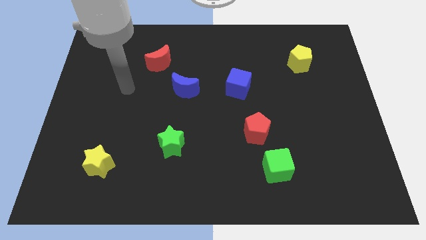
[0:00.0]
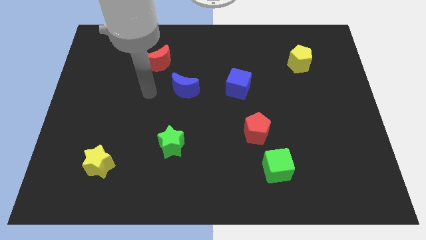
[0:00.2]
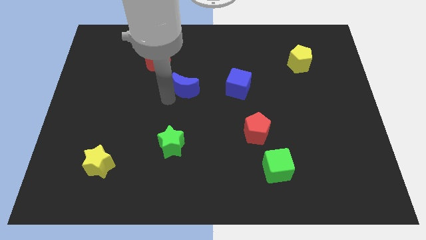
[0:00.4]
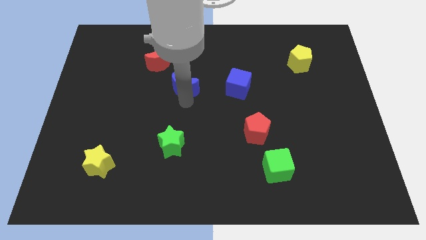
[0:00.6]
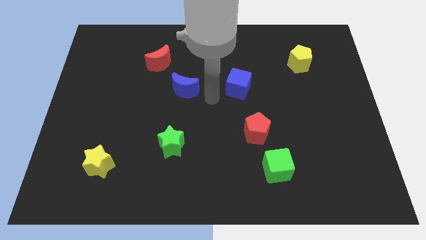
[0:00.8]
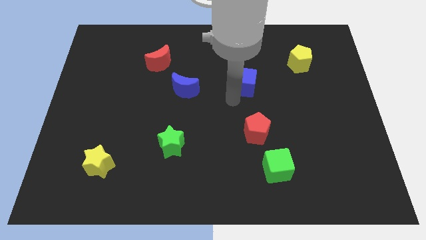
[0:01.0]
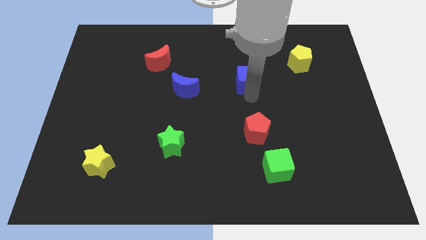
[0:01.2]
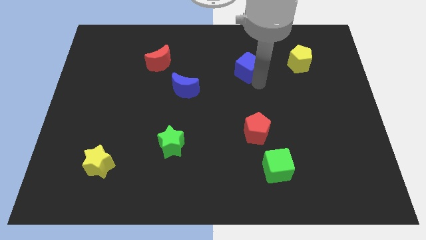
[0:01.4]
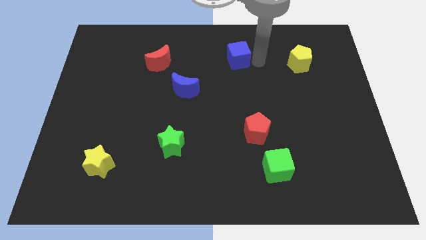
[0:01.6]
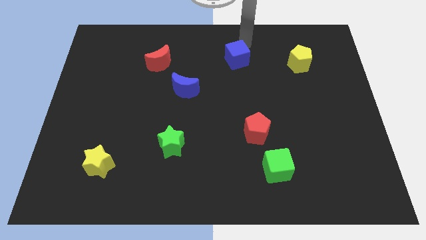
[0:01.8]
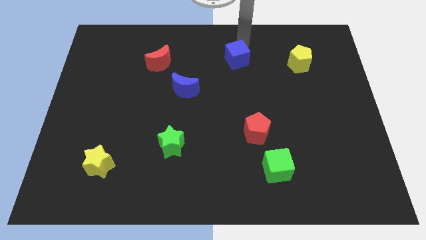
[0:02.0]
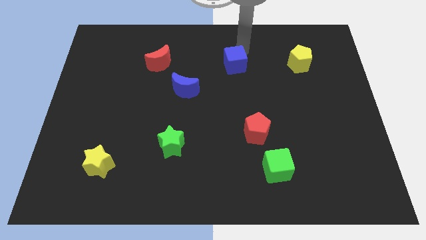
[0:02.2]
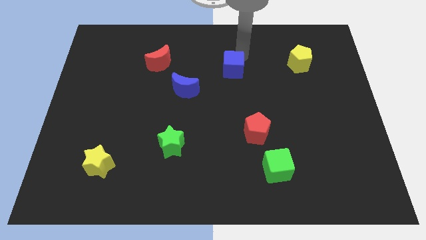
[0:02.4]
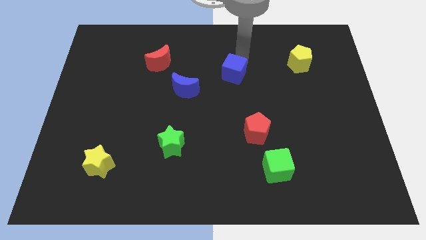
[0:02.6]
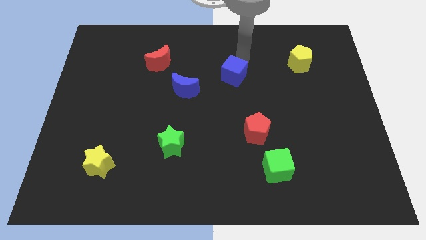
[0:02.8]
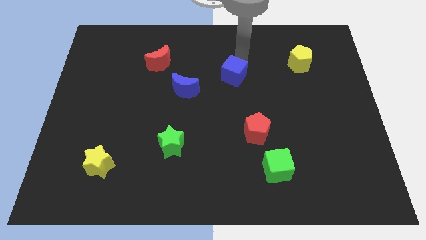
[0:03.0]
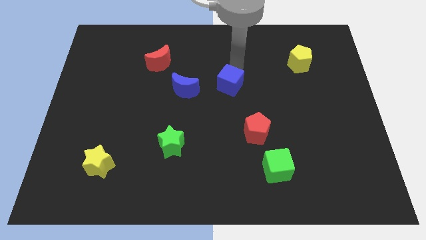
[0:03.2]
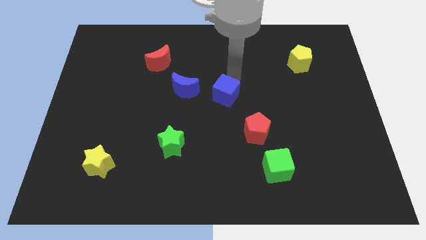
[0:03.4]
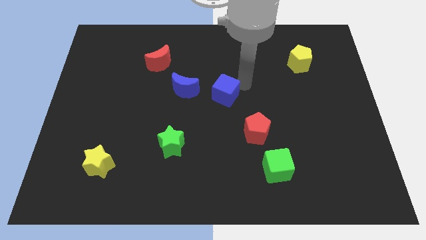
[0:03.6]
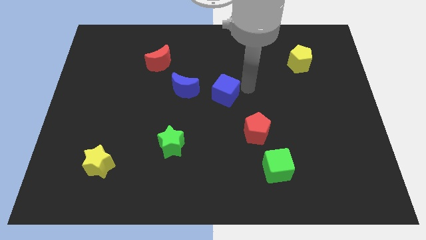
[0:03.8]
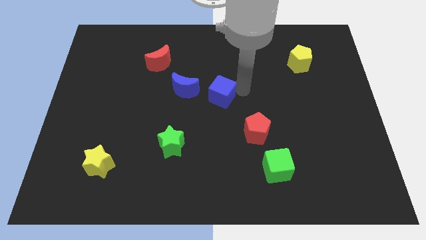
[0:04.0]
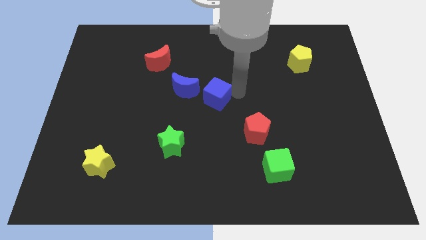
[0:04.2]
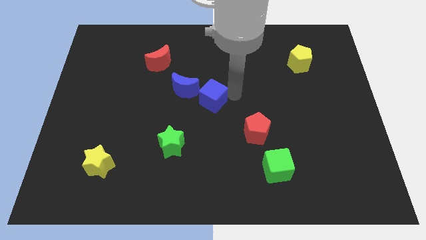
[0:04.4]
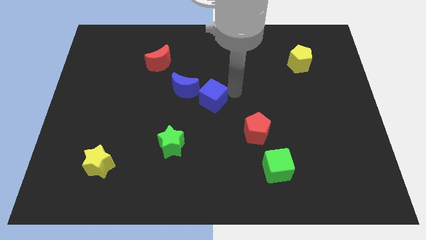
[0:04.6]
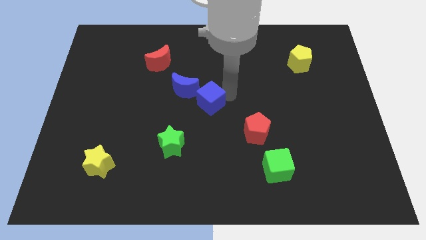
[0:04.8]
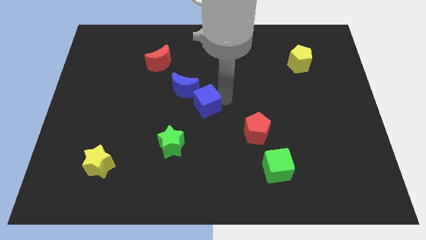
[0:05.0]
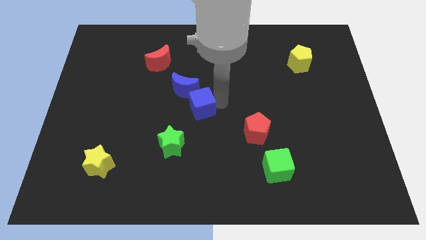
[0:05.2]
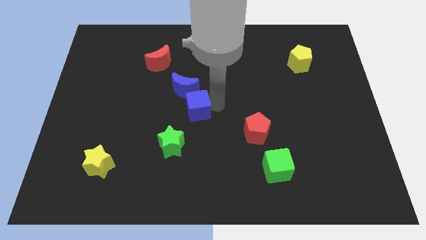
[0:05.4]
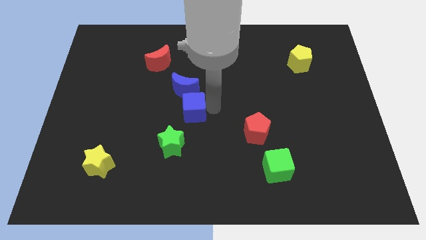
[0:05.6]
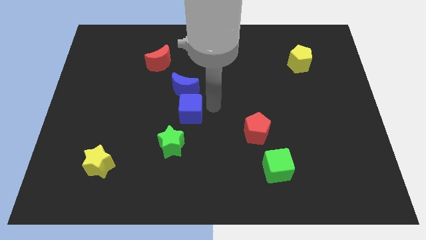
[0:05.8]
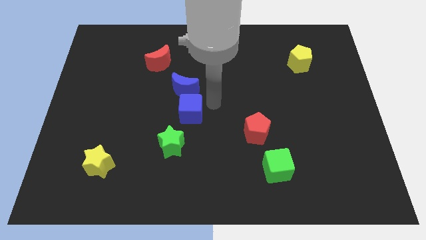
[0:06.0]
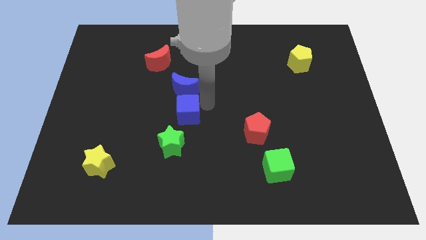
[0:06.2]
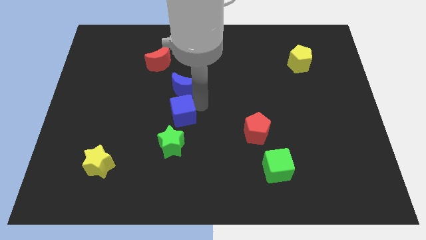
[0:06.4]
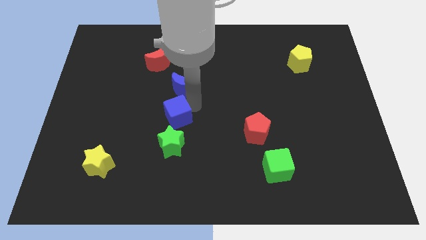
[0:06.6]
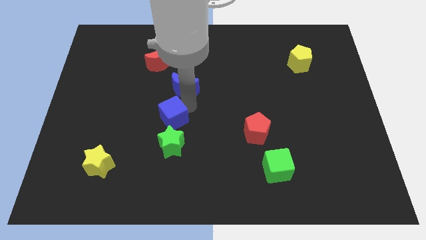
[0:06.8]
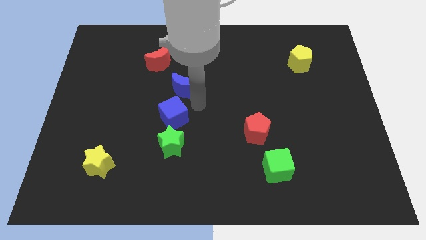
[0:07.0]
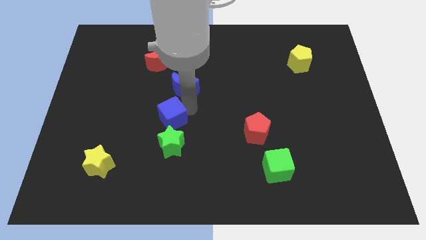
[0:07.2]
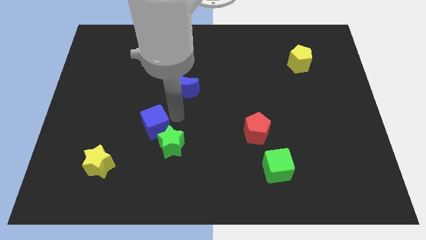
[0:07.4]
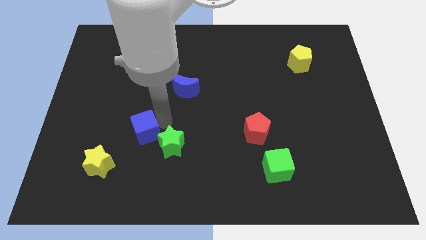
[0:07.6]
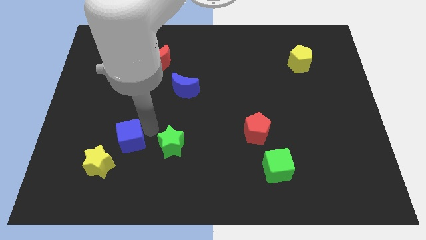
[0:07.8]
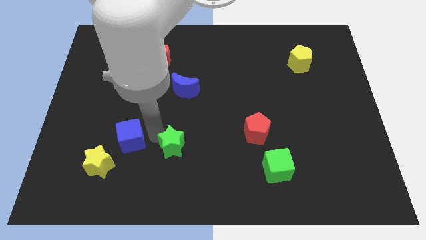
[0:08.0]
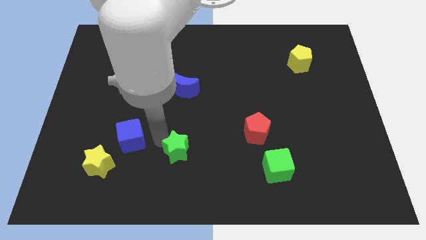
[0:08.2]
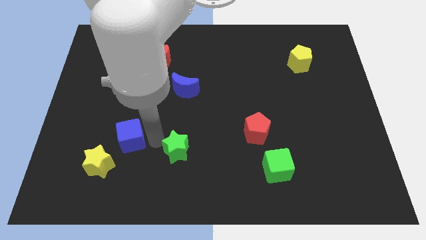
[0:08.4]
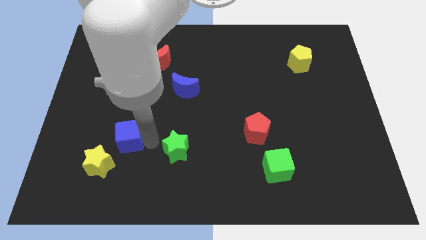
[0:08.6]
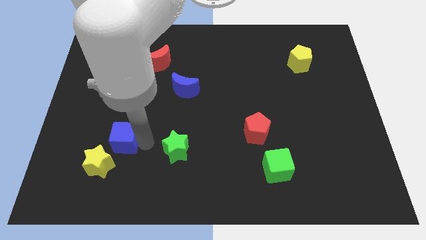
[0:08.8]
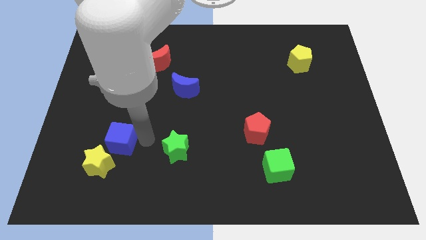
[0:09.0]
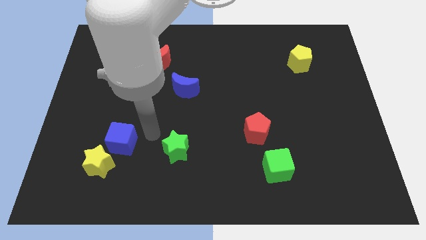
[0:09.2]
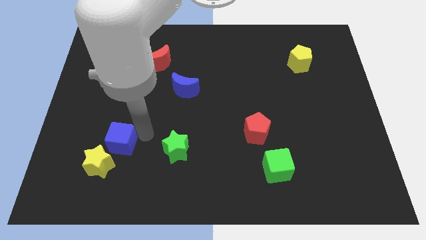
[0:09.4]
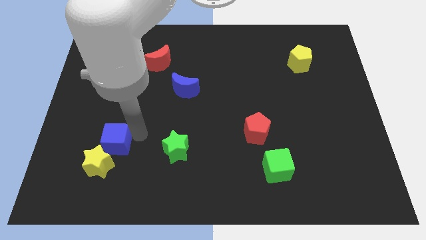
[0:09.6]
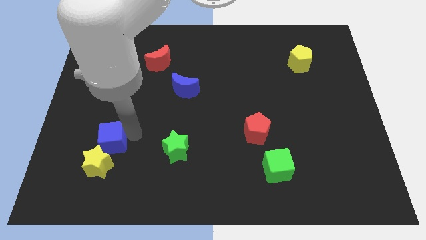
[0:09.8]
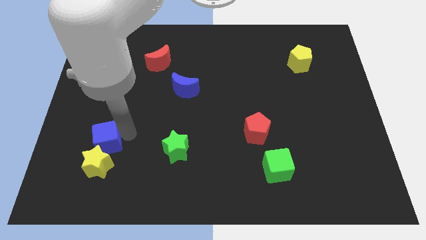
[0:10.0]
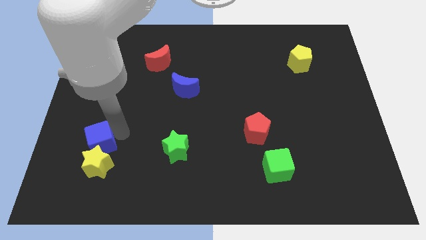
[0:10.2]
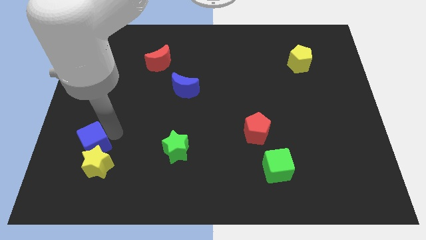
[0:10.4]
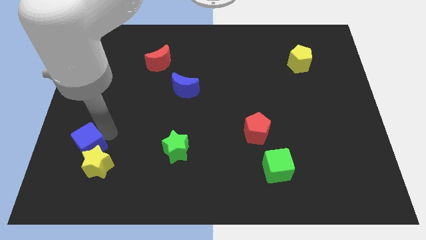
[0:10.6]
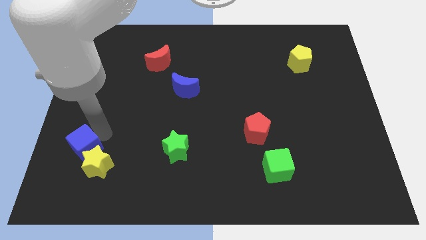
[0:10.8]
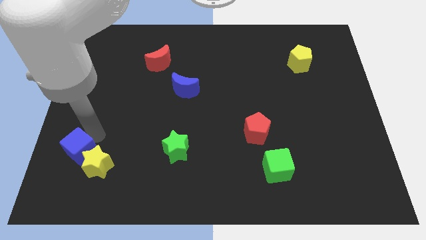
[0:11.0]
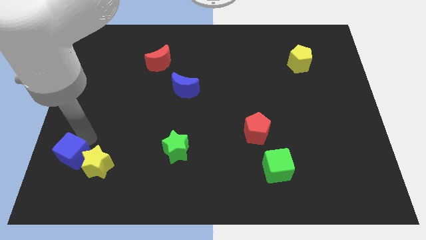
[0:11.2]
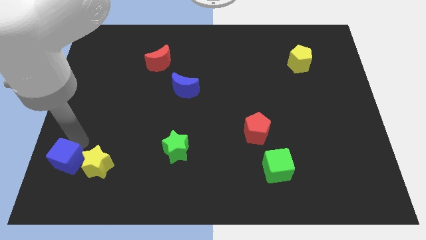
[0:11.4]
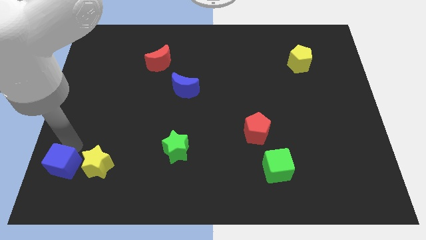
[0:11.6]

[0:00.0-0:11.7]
put the blue cube to the lower left corner
